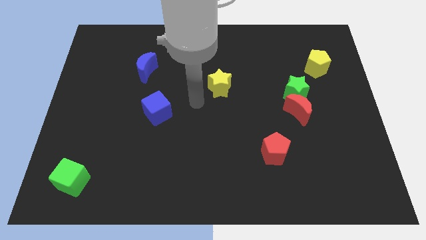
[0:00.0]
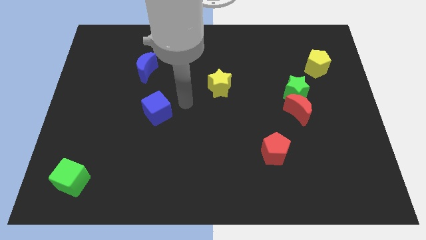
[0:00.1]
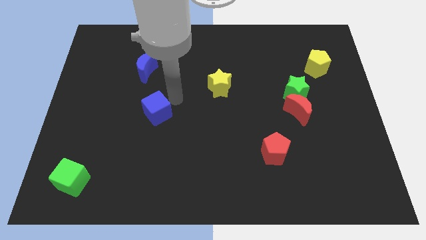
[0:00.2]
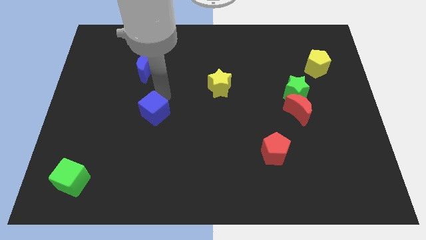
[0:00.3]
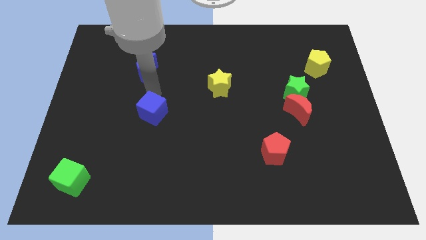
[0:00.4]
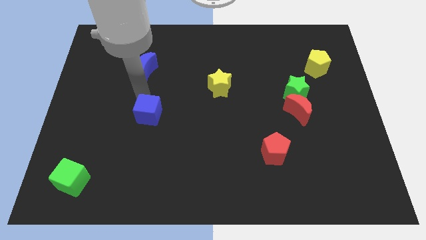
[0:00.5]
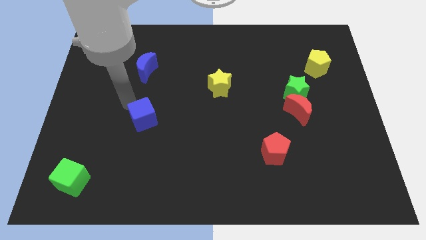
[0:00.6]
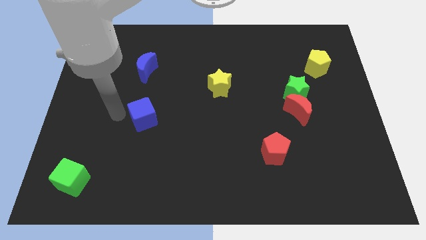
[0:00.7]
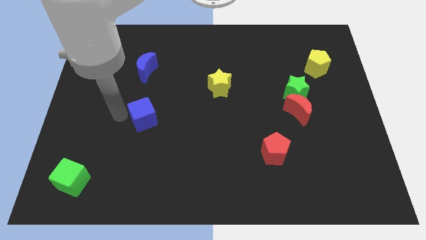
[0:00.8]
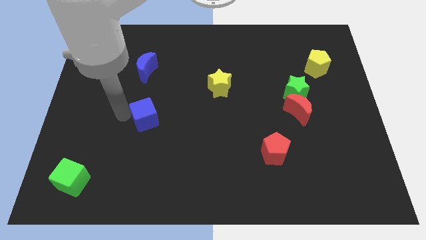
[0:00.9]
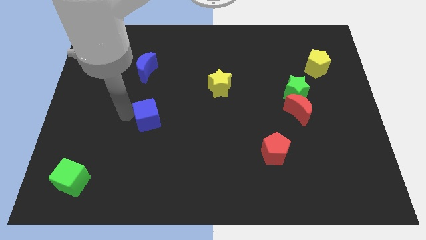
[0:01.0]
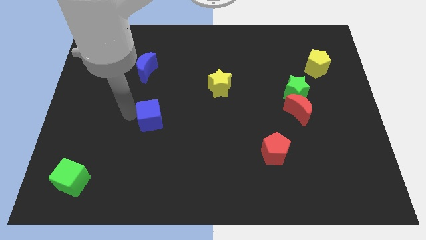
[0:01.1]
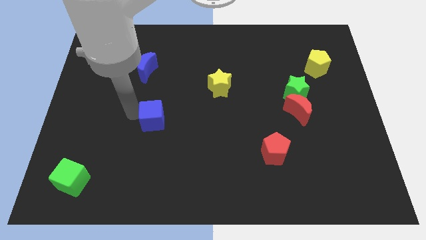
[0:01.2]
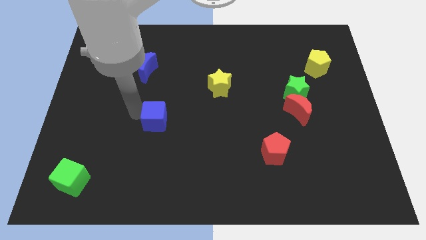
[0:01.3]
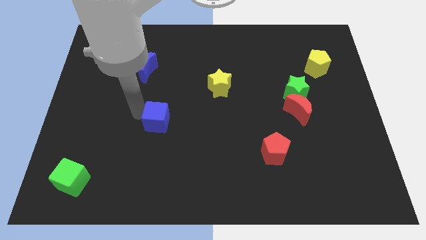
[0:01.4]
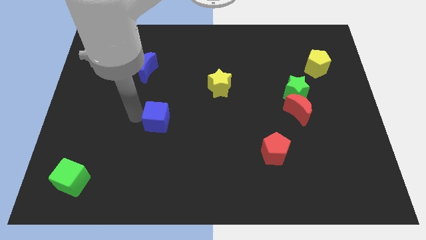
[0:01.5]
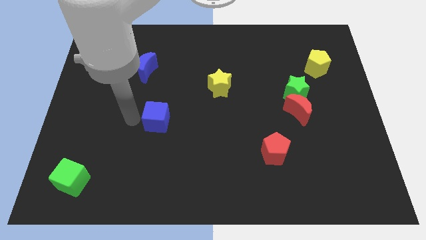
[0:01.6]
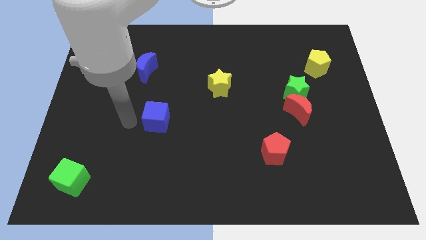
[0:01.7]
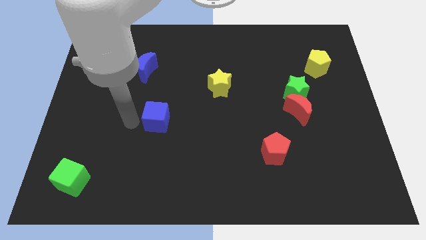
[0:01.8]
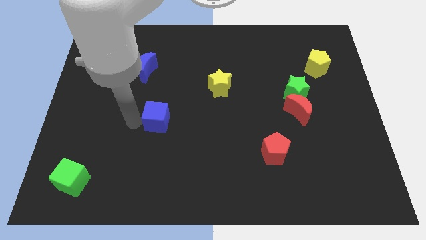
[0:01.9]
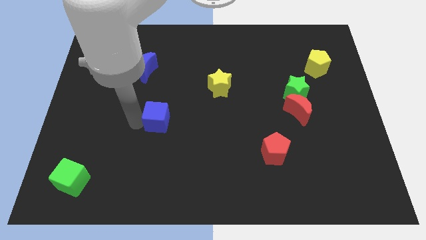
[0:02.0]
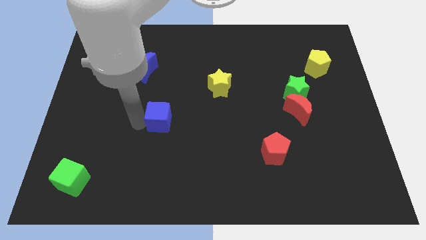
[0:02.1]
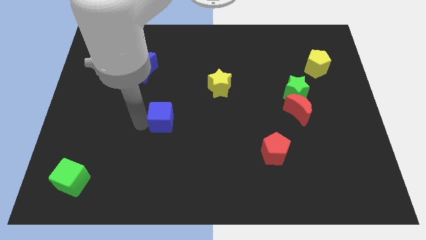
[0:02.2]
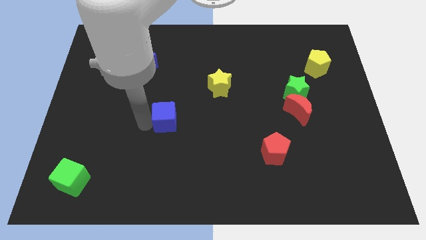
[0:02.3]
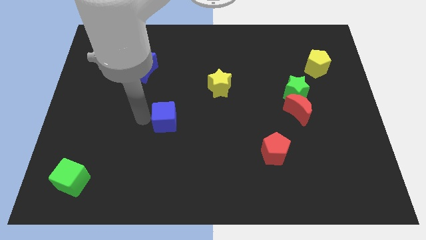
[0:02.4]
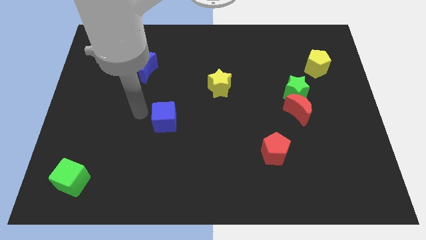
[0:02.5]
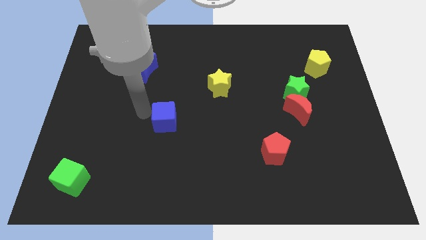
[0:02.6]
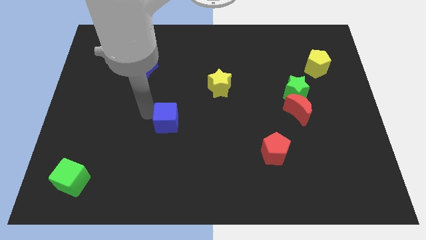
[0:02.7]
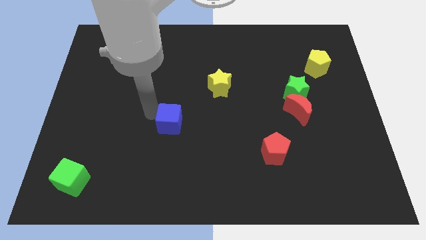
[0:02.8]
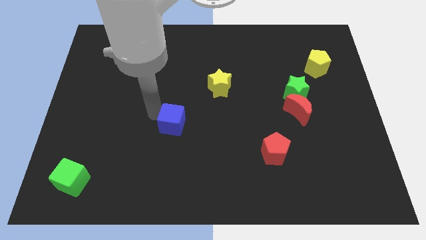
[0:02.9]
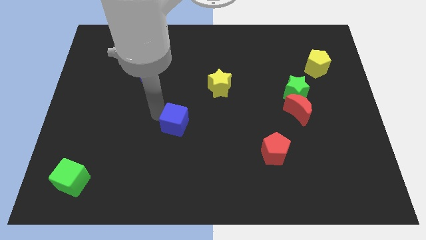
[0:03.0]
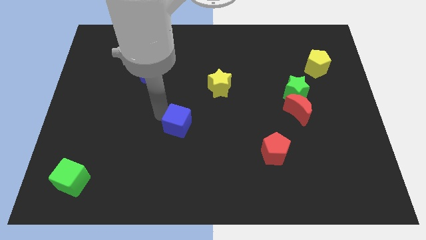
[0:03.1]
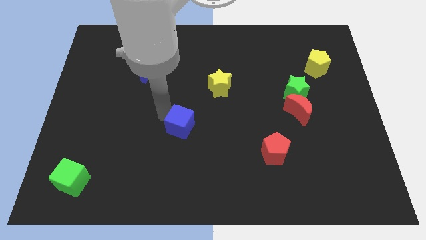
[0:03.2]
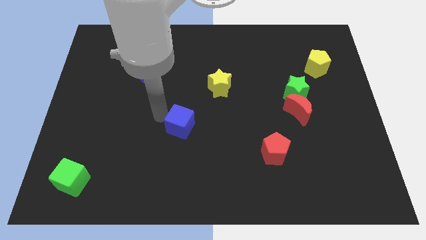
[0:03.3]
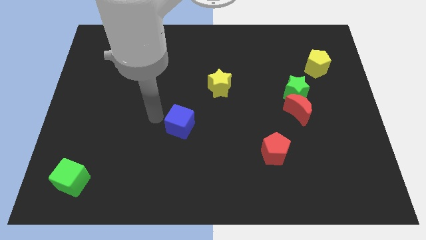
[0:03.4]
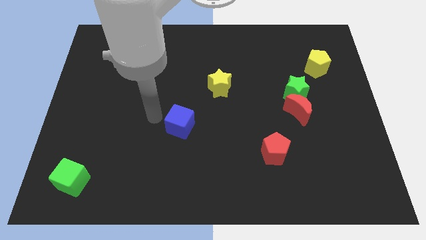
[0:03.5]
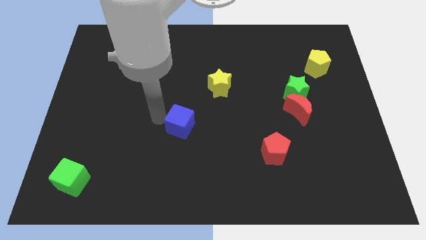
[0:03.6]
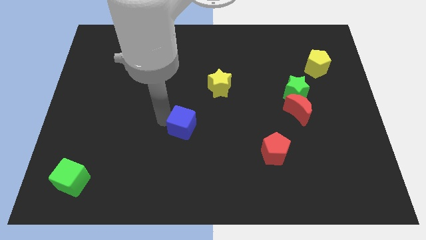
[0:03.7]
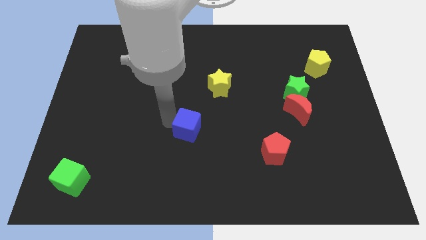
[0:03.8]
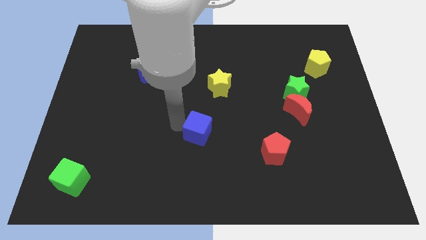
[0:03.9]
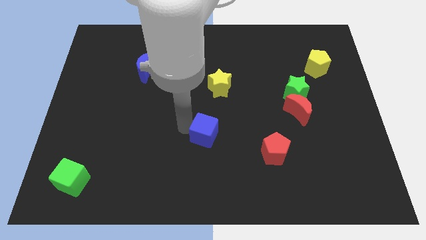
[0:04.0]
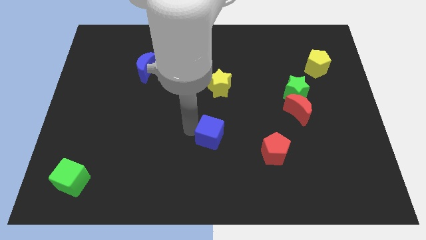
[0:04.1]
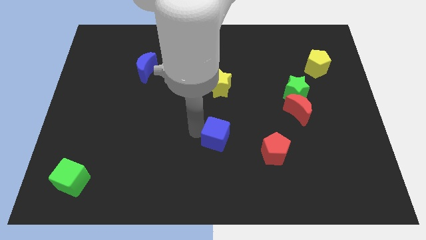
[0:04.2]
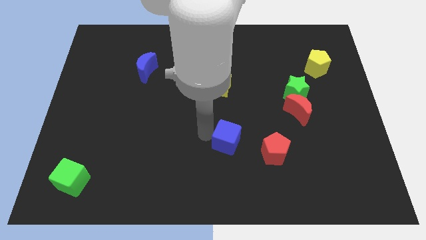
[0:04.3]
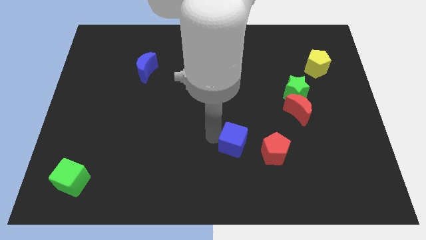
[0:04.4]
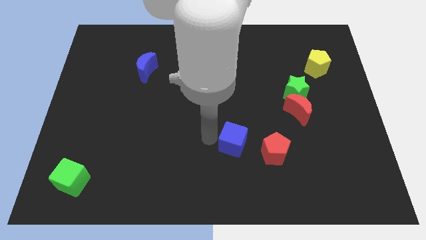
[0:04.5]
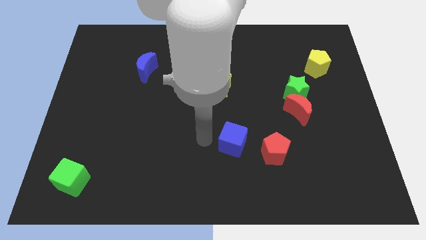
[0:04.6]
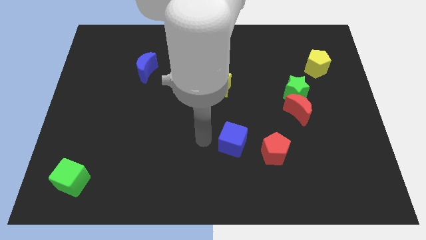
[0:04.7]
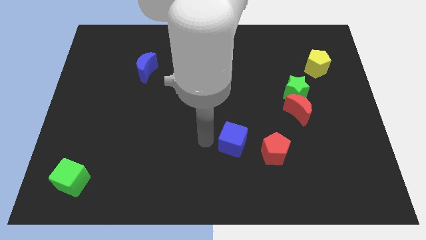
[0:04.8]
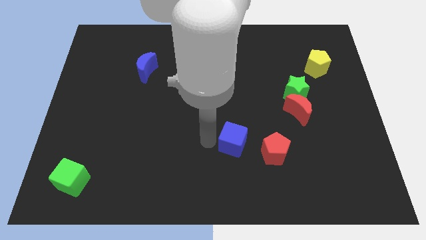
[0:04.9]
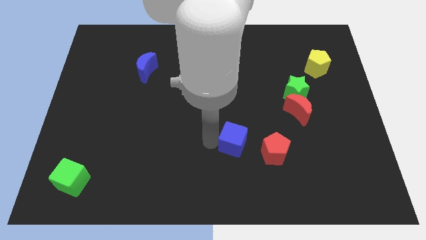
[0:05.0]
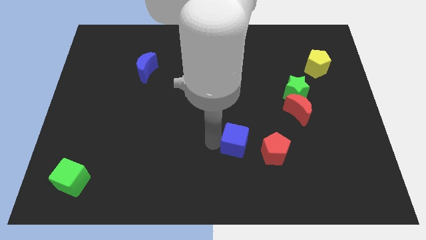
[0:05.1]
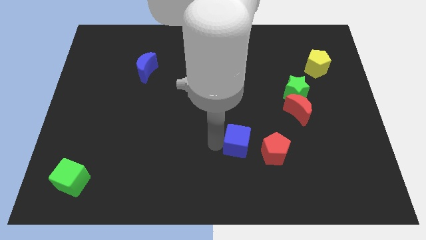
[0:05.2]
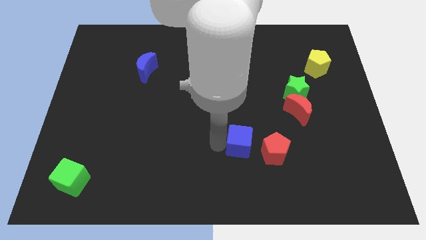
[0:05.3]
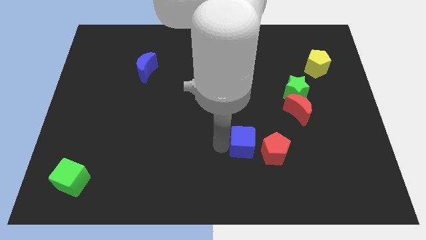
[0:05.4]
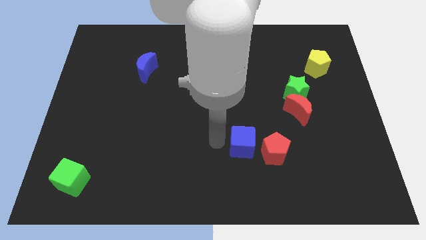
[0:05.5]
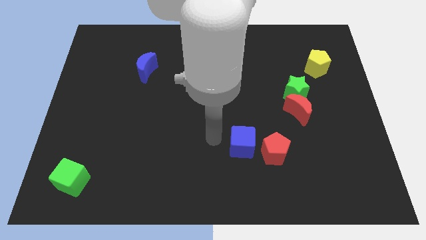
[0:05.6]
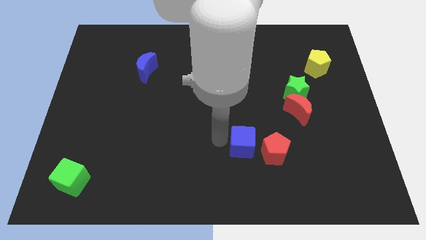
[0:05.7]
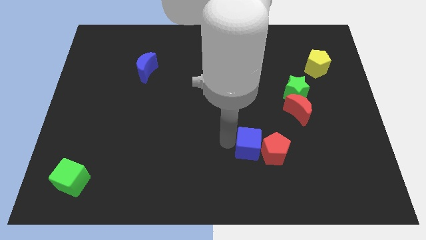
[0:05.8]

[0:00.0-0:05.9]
put the blue cube to the red pentagon

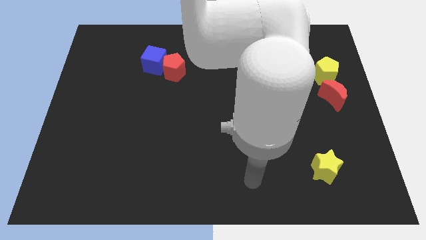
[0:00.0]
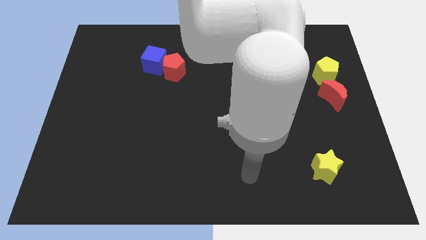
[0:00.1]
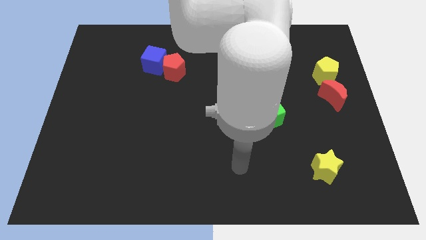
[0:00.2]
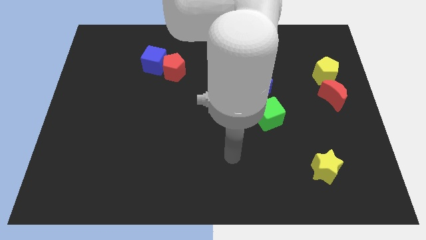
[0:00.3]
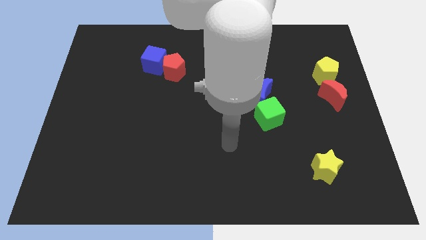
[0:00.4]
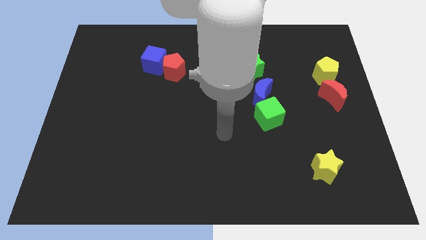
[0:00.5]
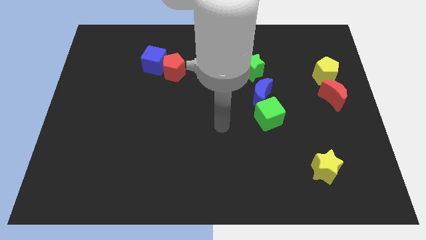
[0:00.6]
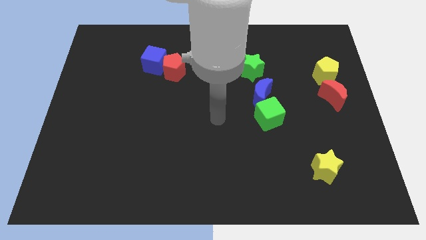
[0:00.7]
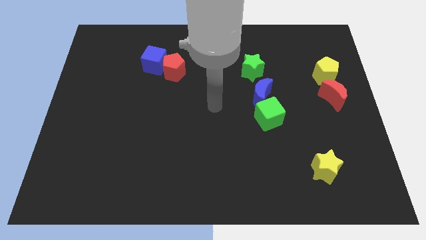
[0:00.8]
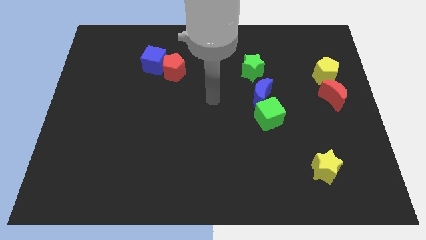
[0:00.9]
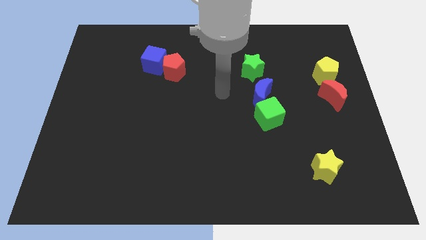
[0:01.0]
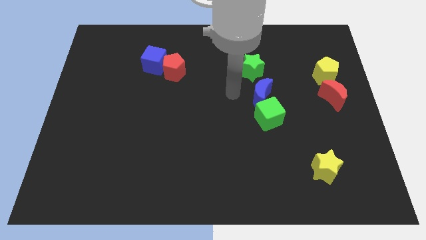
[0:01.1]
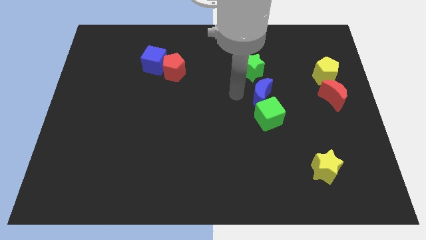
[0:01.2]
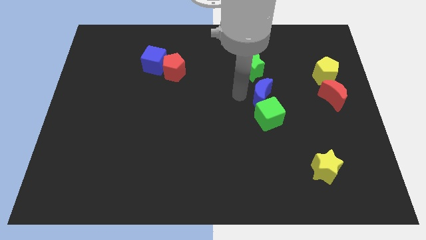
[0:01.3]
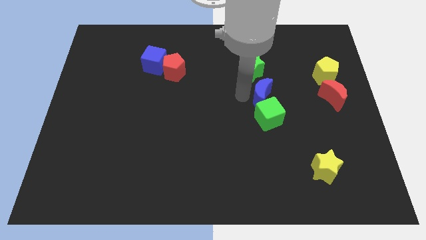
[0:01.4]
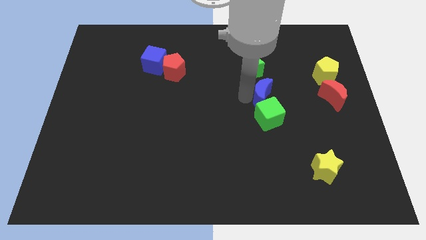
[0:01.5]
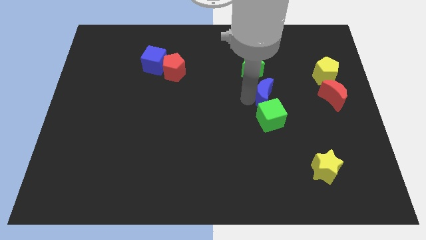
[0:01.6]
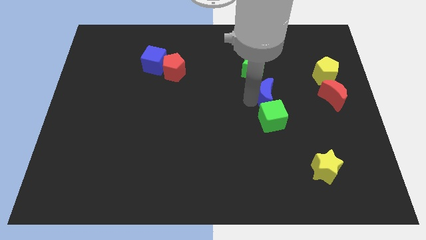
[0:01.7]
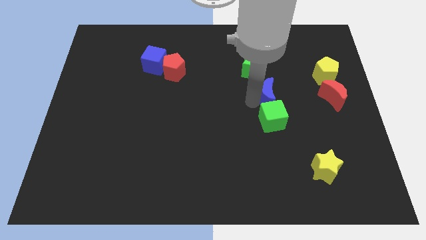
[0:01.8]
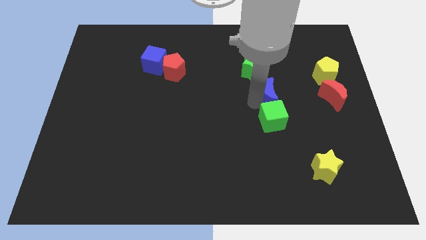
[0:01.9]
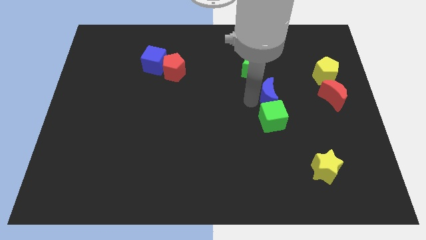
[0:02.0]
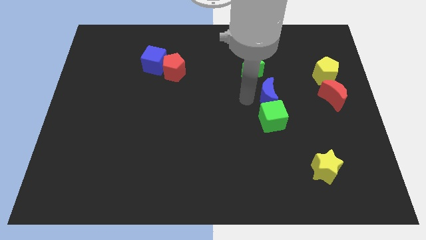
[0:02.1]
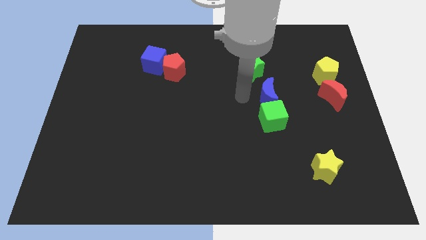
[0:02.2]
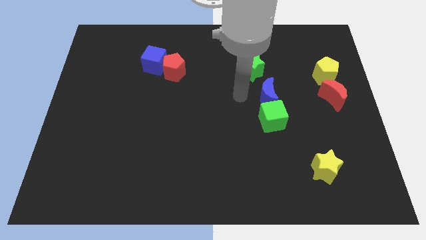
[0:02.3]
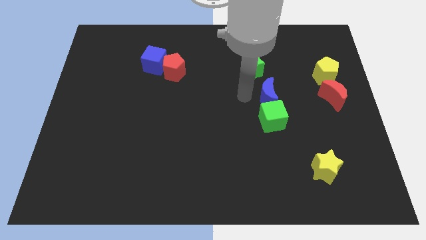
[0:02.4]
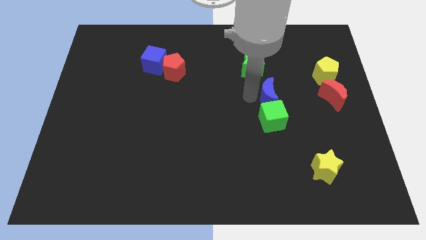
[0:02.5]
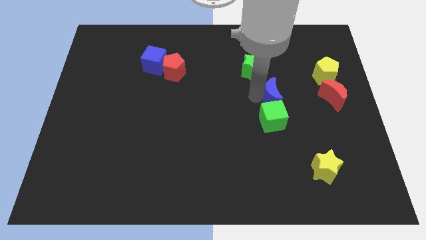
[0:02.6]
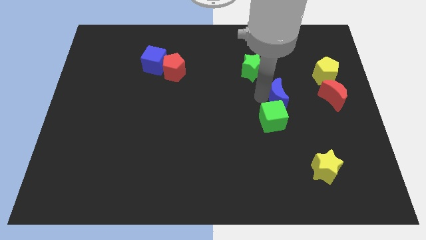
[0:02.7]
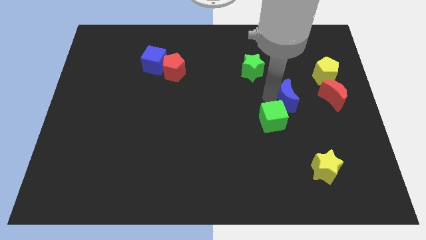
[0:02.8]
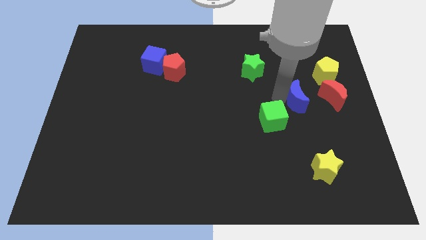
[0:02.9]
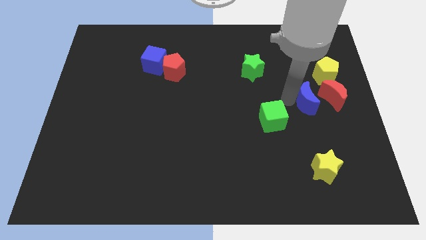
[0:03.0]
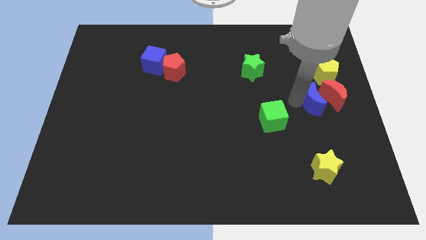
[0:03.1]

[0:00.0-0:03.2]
put the blue moon next to the red moon
